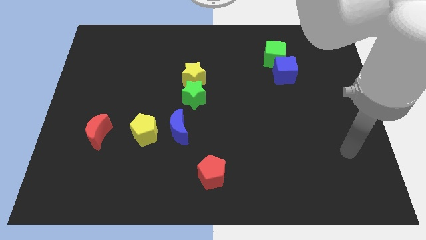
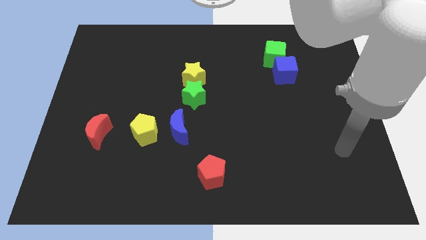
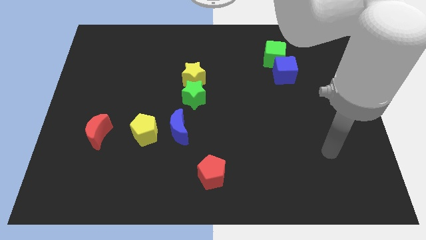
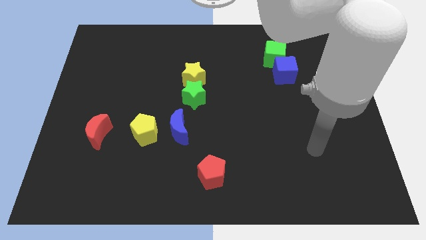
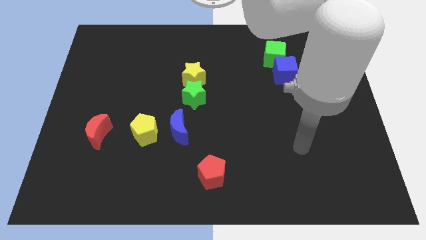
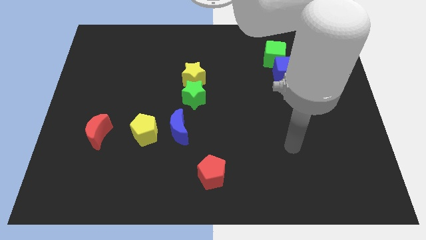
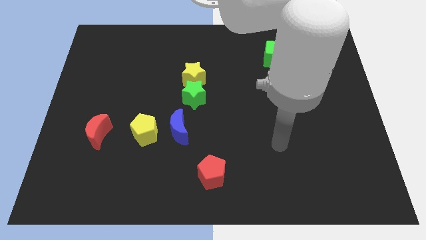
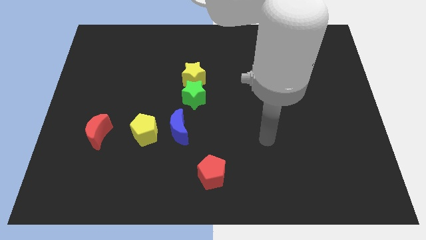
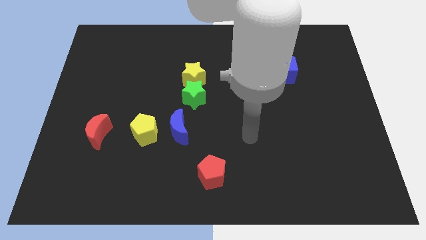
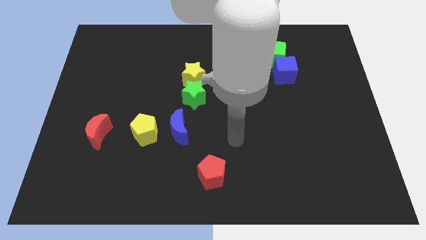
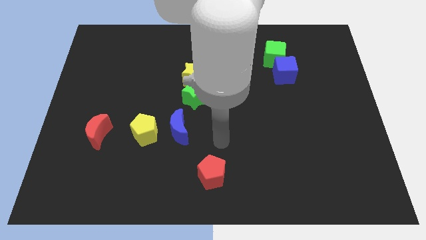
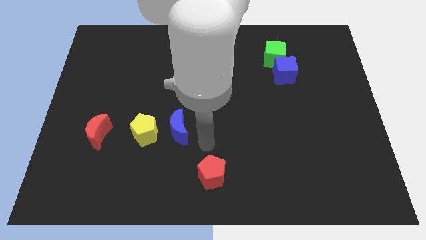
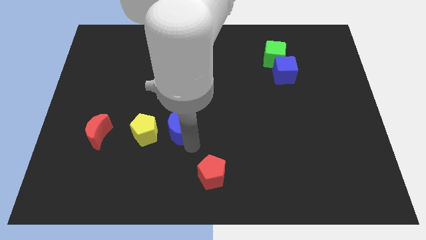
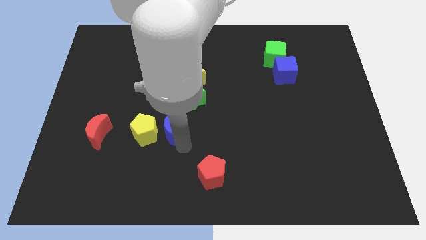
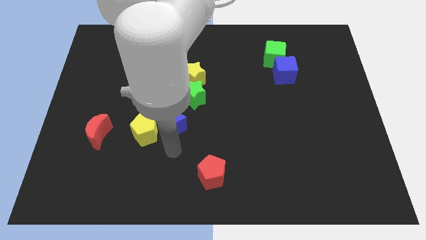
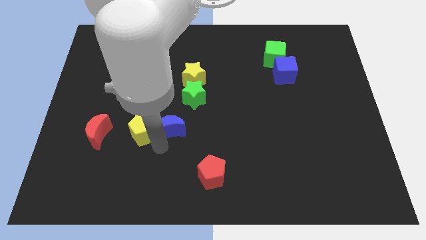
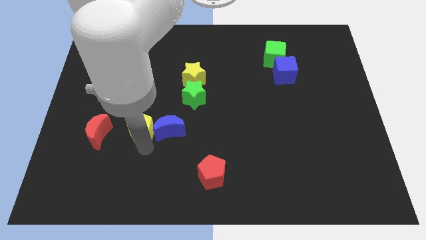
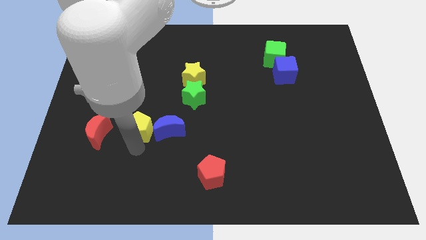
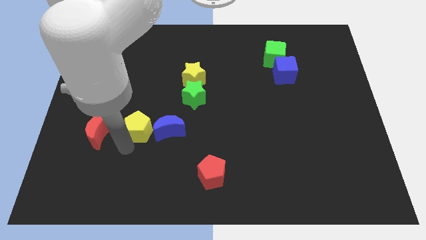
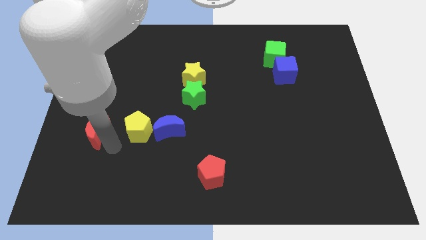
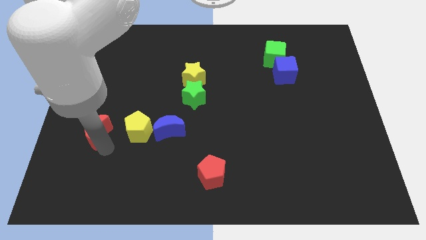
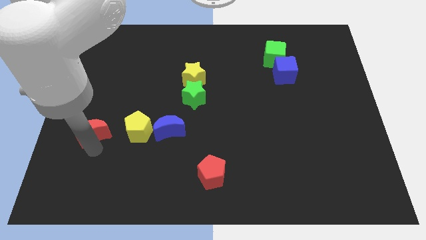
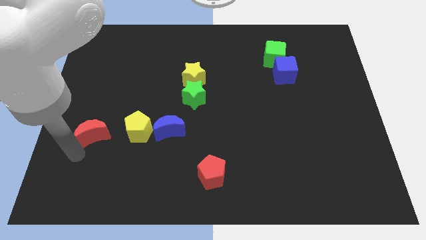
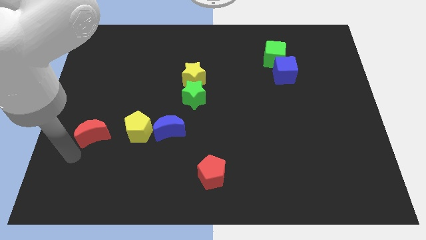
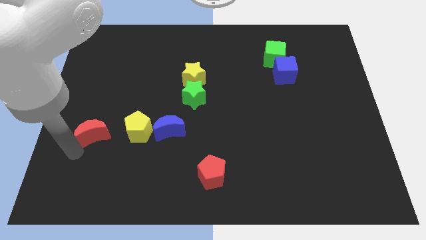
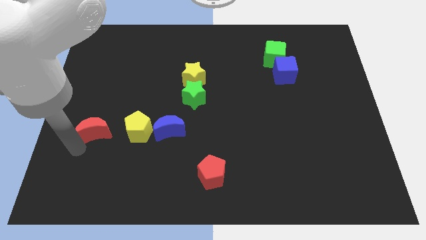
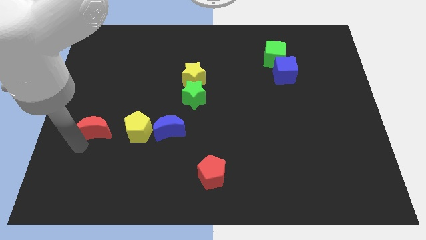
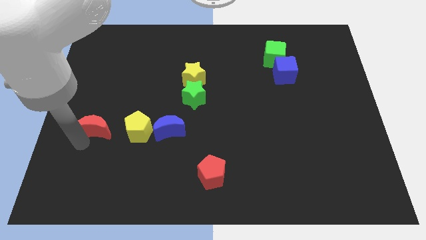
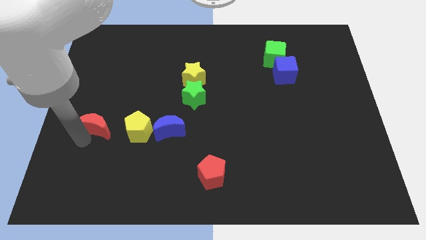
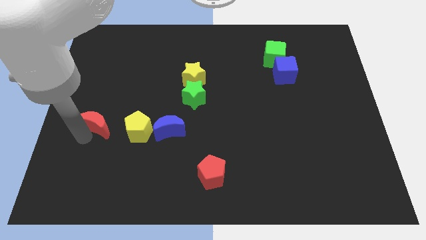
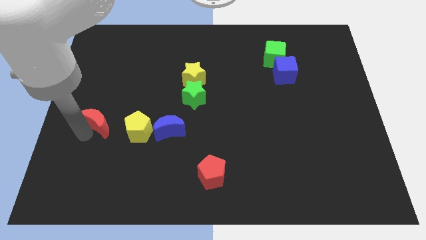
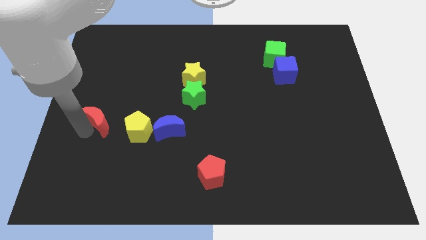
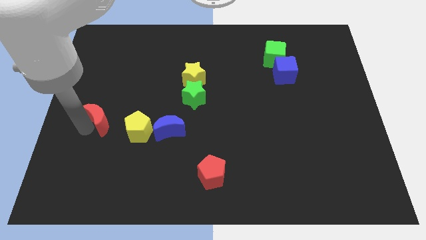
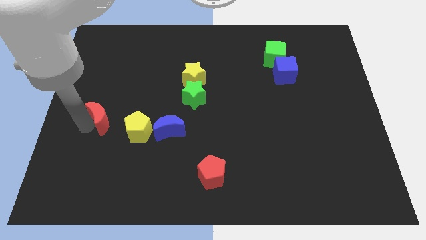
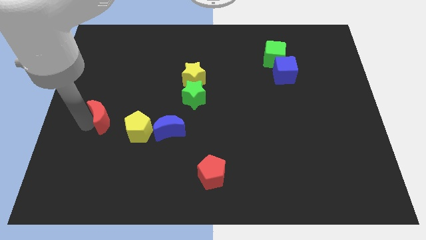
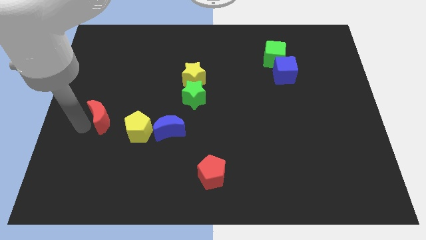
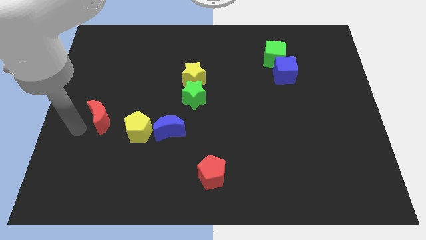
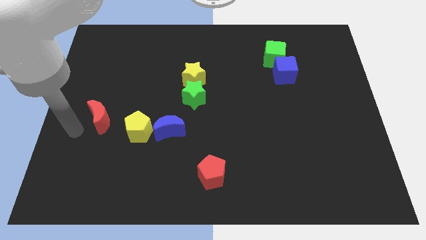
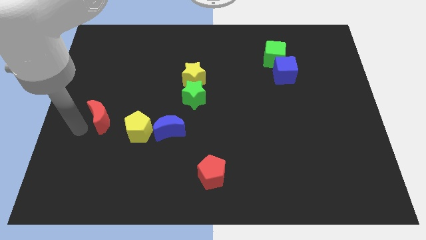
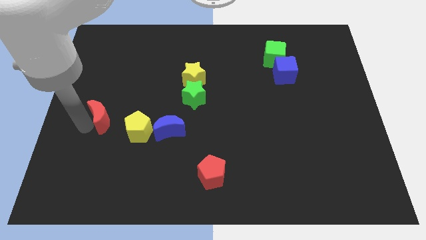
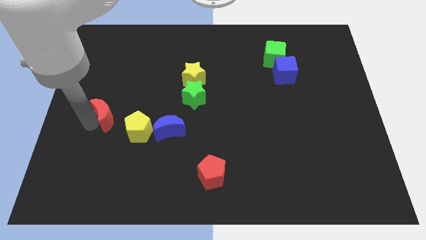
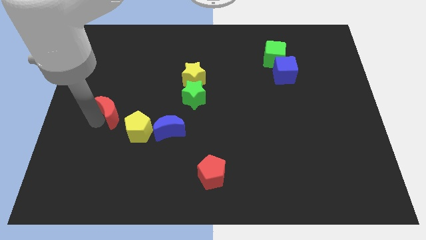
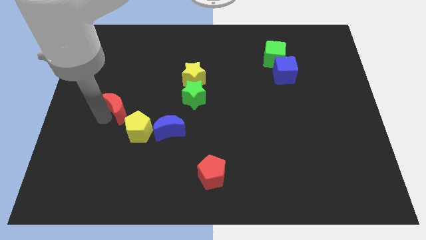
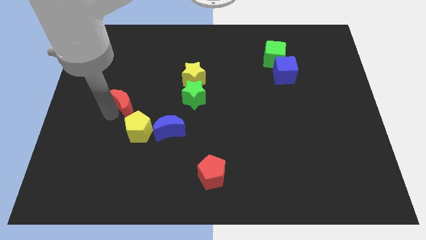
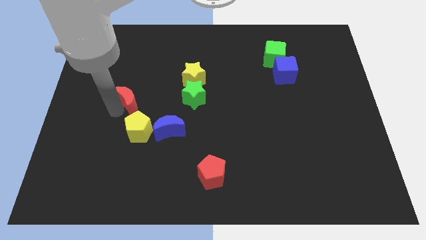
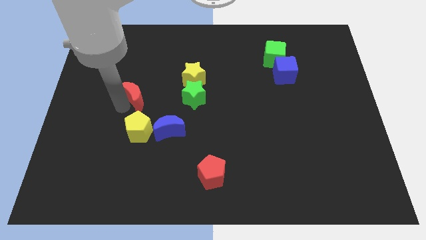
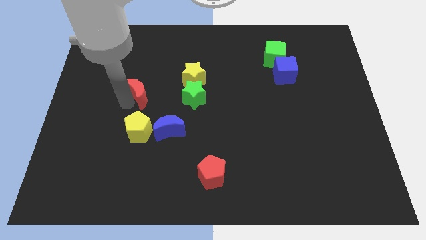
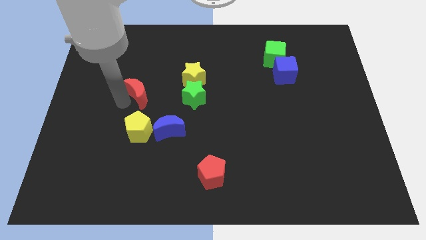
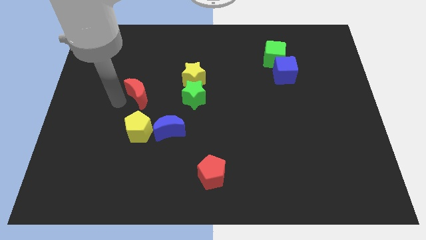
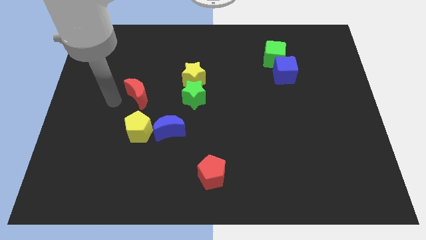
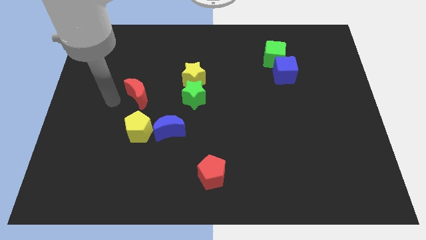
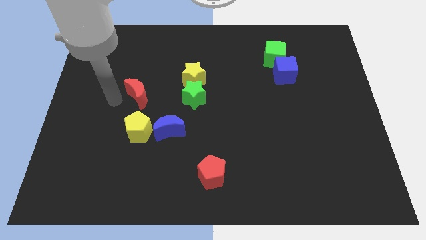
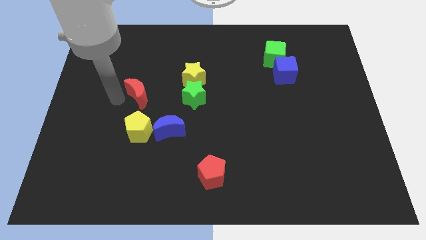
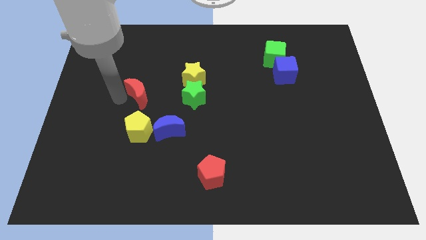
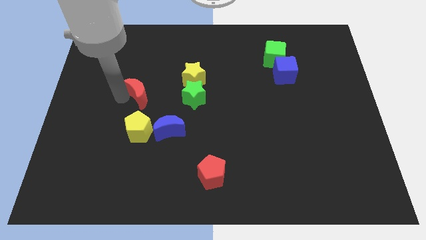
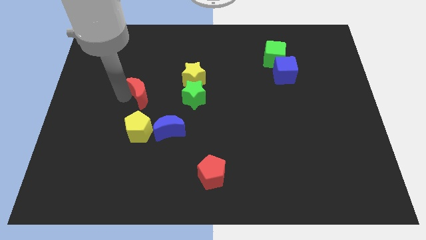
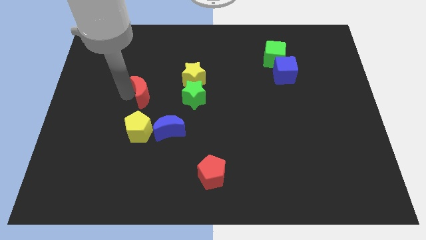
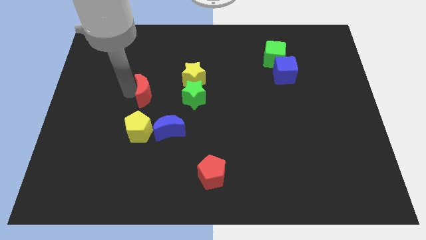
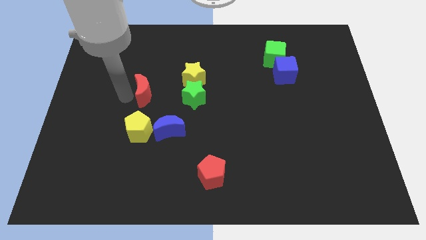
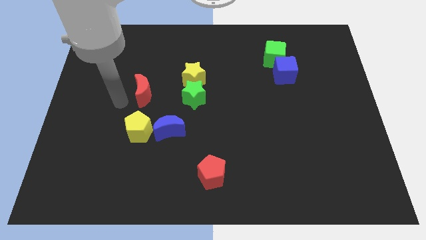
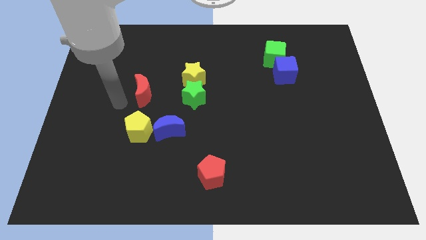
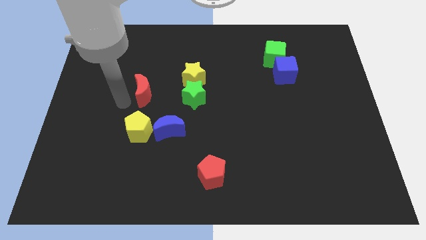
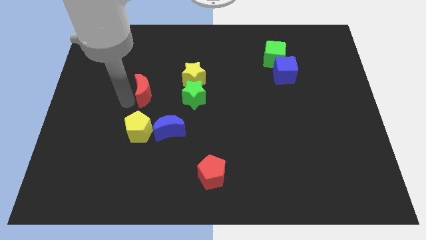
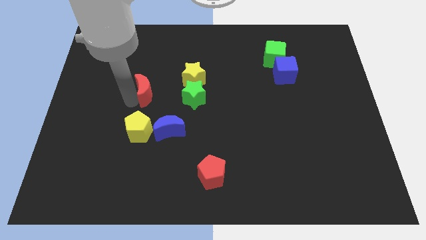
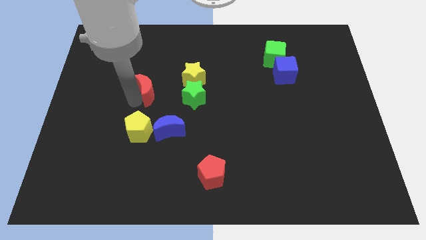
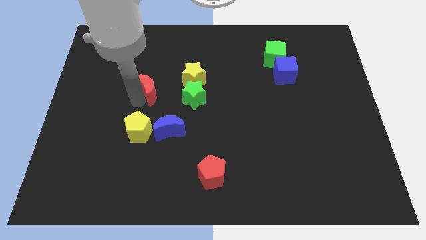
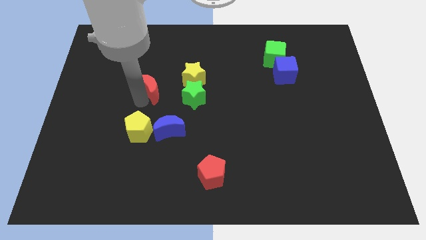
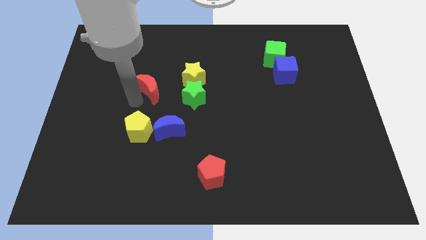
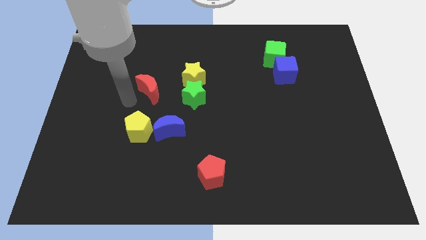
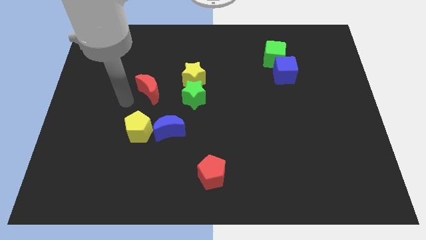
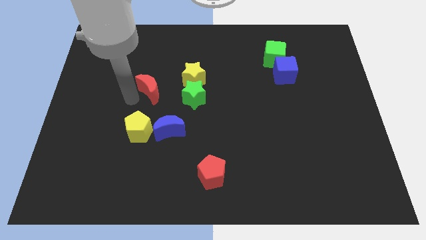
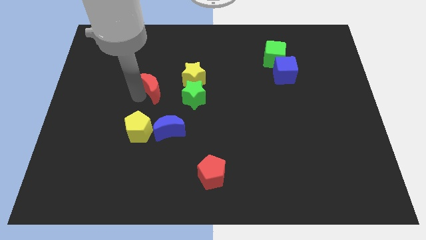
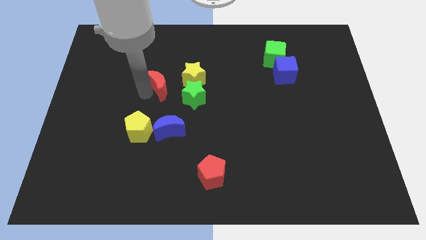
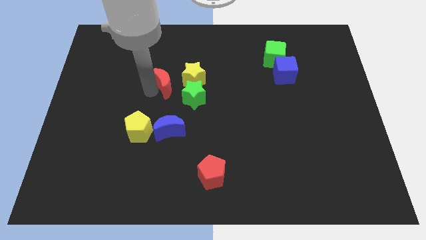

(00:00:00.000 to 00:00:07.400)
push the red moon diagonally up and right

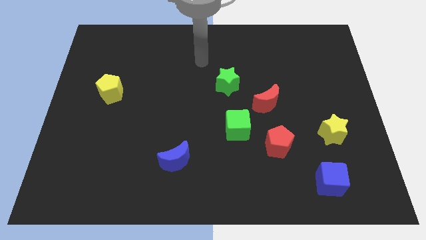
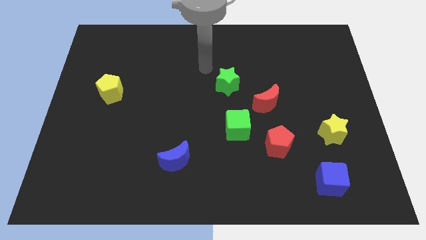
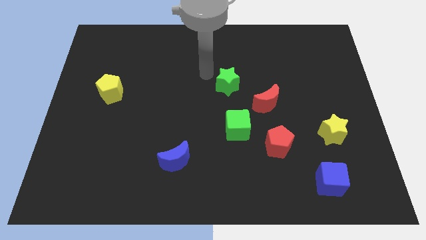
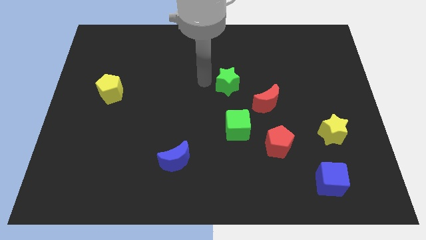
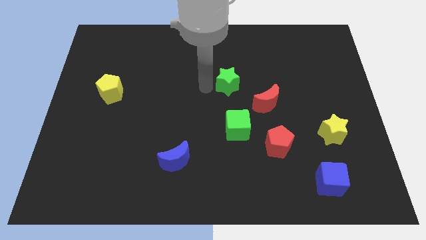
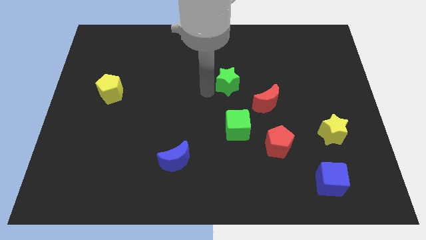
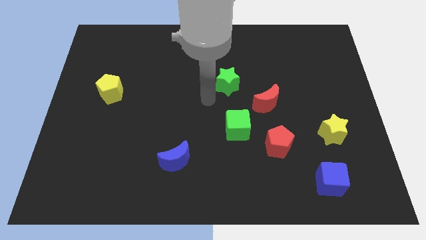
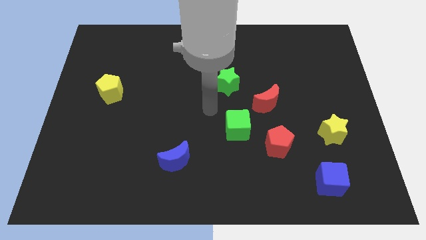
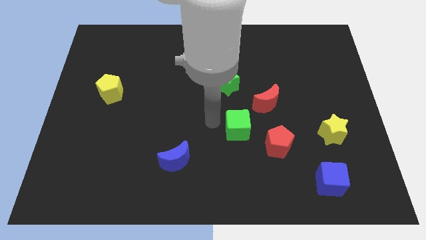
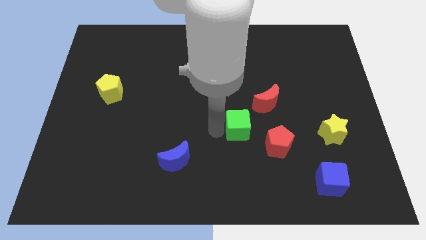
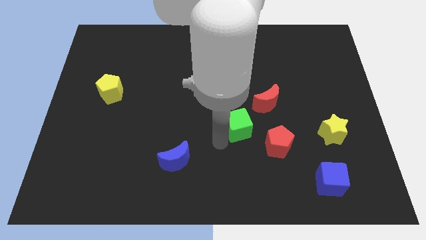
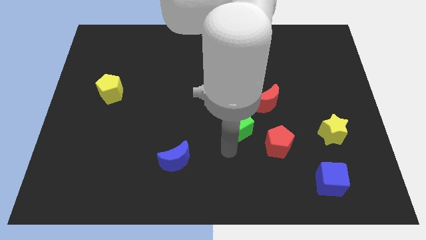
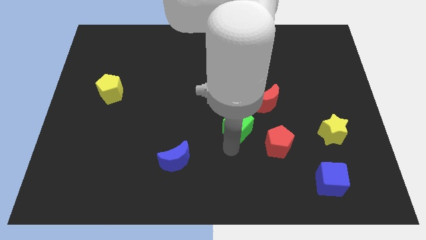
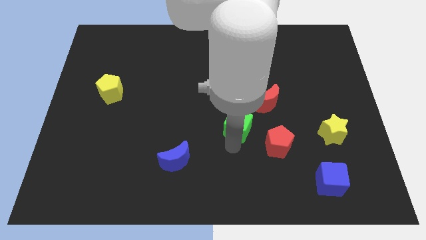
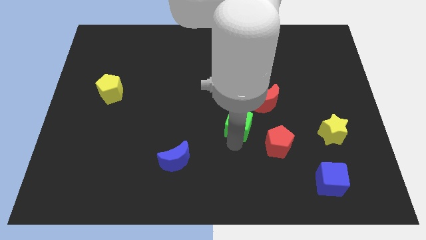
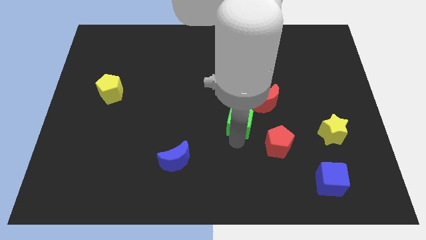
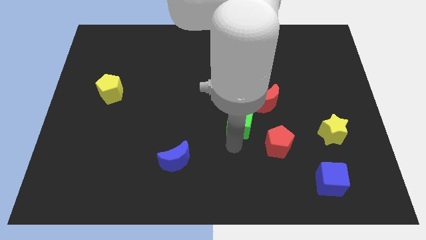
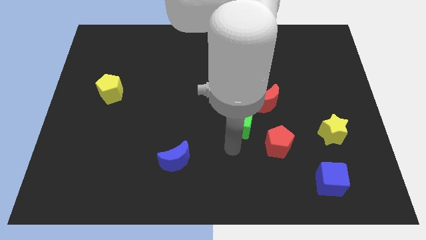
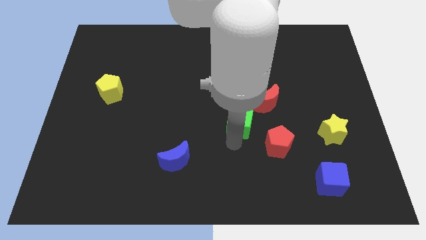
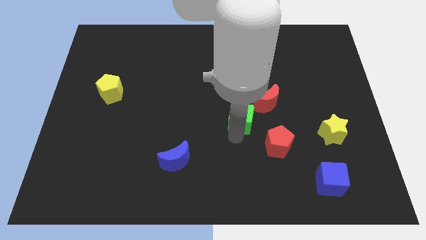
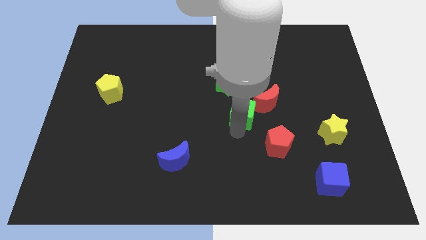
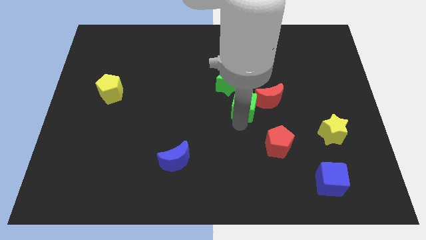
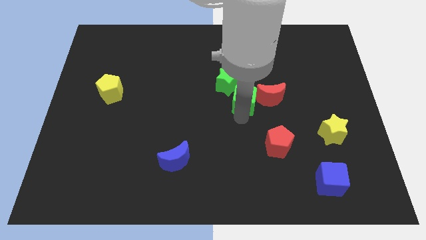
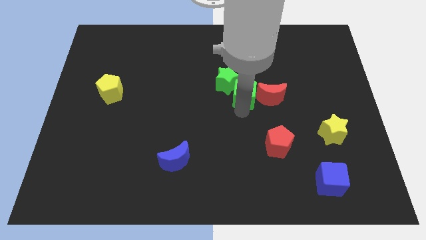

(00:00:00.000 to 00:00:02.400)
push the green cube diagonally up and to the right slightly
